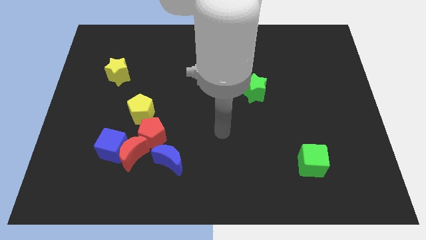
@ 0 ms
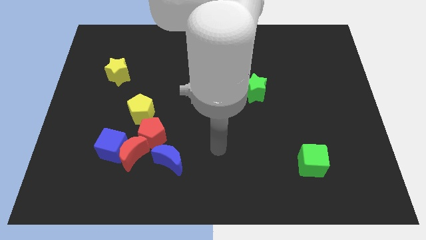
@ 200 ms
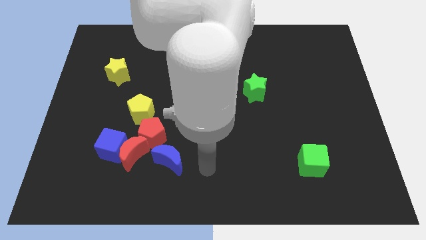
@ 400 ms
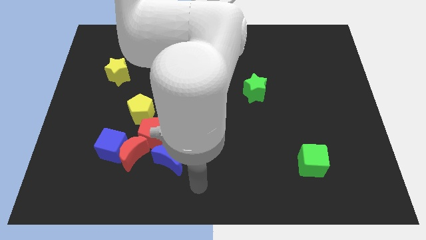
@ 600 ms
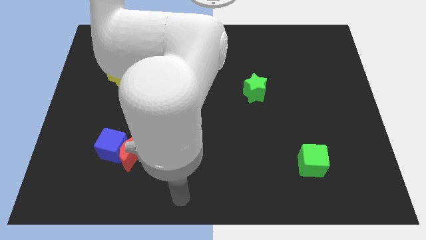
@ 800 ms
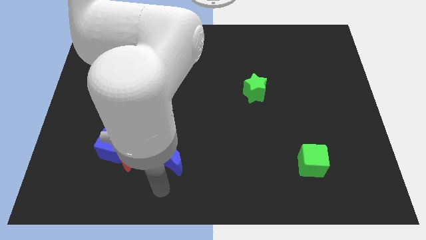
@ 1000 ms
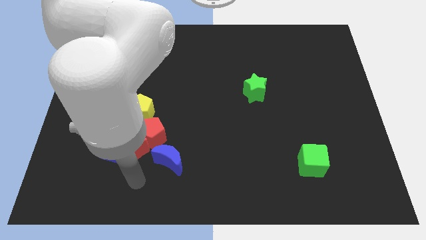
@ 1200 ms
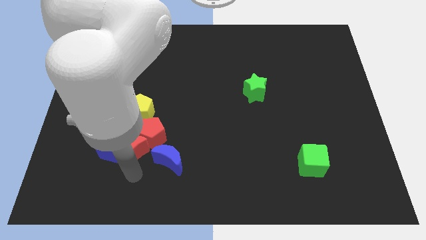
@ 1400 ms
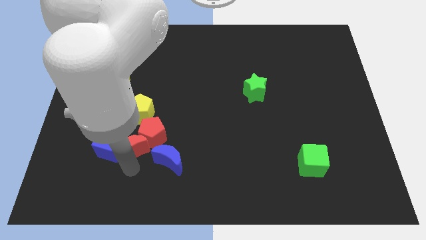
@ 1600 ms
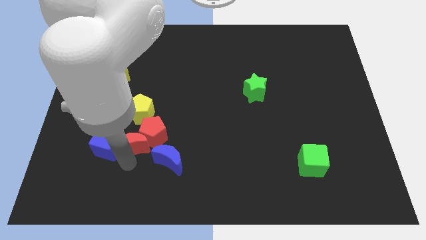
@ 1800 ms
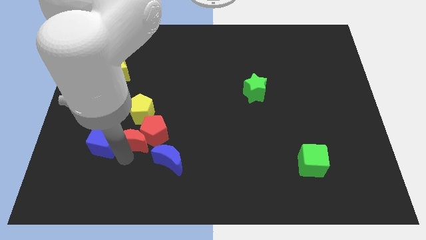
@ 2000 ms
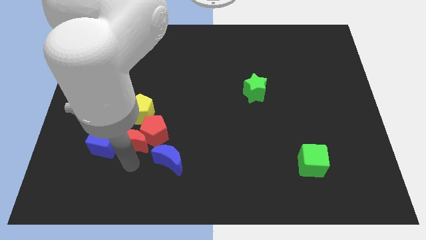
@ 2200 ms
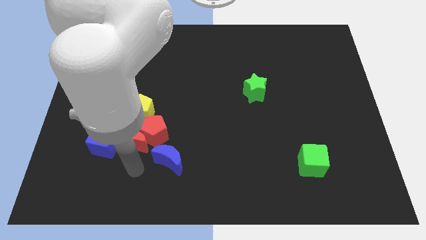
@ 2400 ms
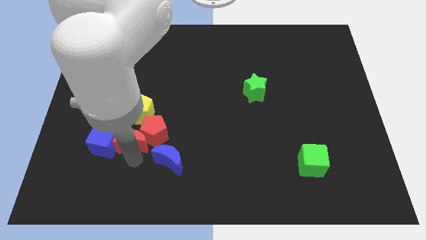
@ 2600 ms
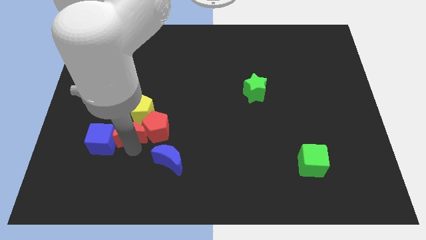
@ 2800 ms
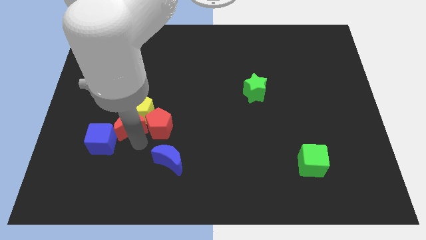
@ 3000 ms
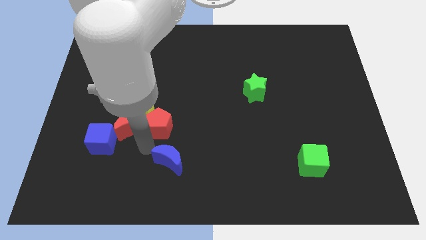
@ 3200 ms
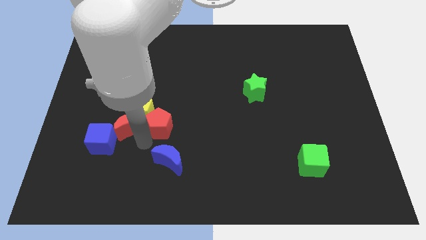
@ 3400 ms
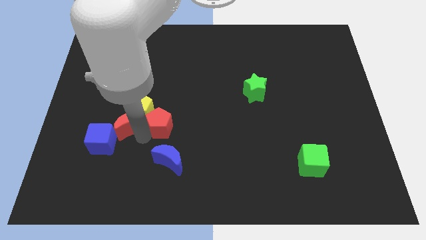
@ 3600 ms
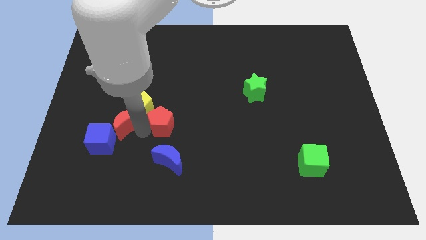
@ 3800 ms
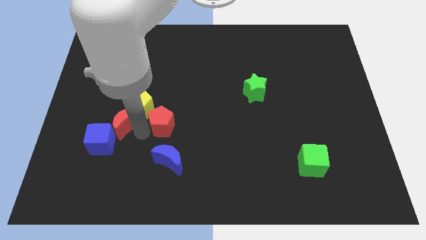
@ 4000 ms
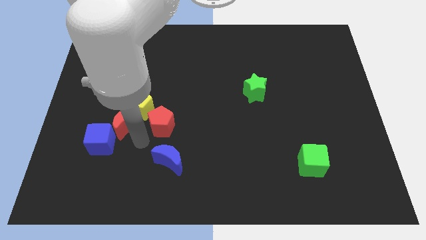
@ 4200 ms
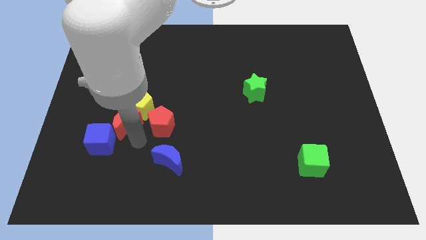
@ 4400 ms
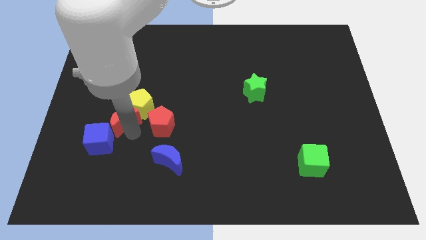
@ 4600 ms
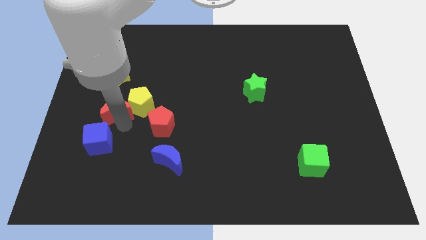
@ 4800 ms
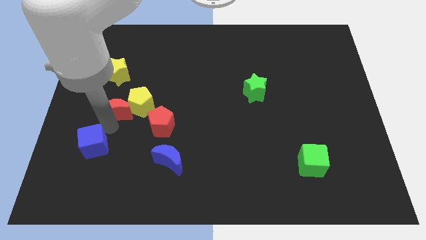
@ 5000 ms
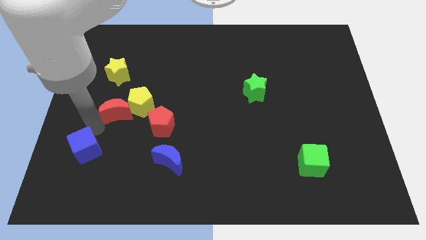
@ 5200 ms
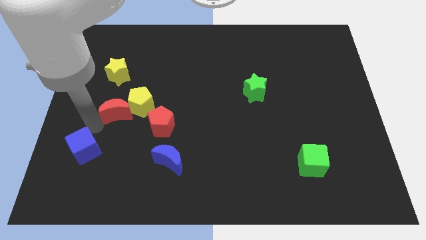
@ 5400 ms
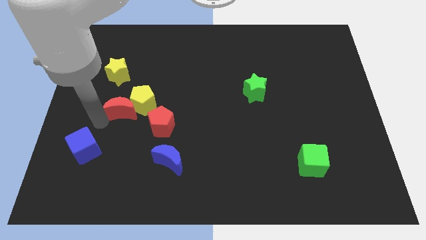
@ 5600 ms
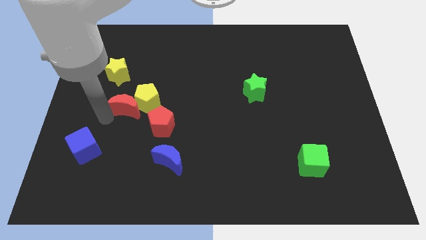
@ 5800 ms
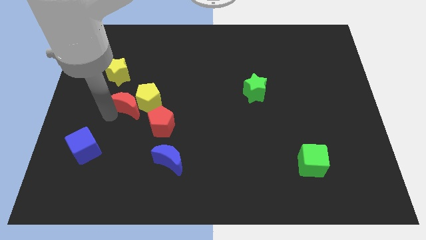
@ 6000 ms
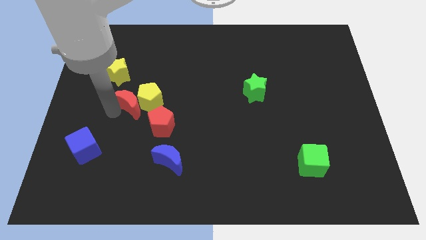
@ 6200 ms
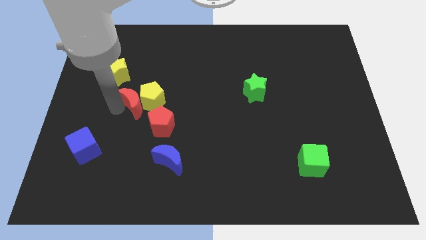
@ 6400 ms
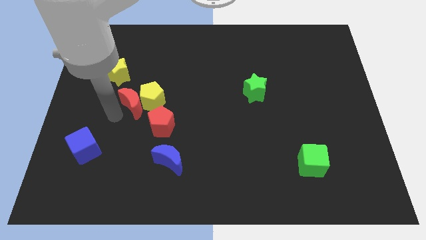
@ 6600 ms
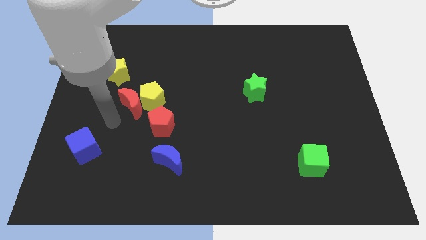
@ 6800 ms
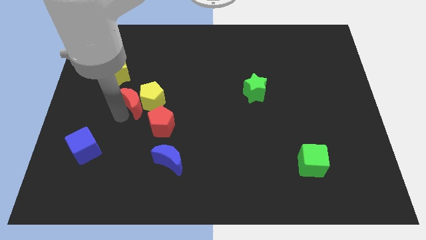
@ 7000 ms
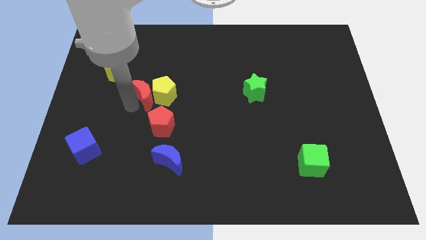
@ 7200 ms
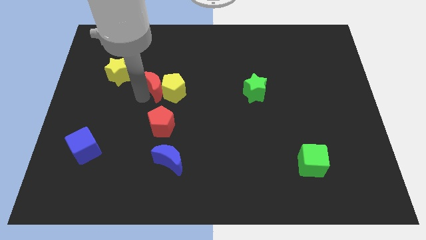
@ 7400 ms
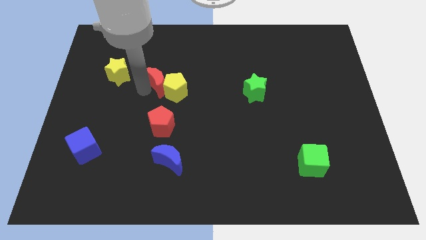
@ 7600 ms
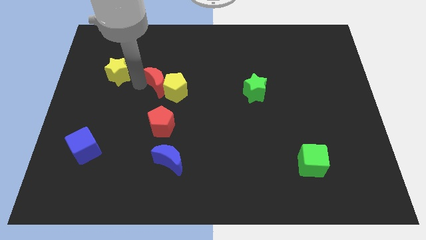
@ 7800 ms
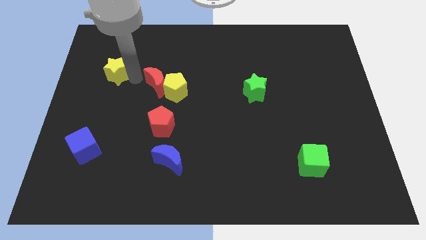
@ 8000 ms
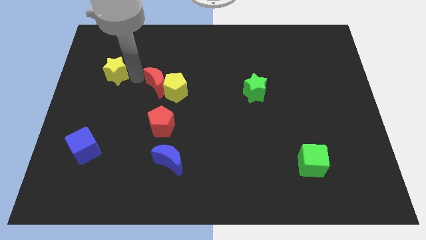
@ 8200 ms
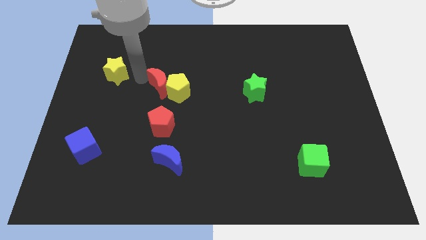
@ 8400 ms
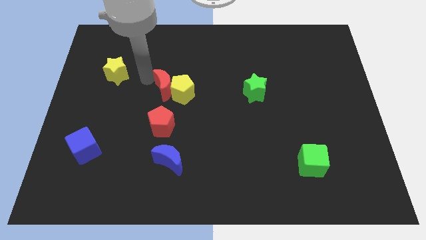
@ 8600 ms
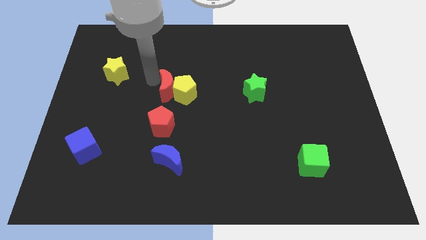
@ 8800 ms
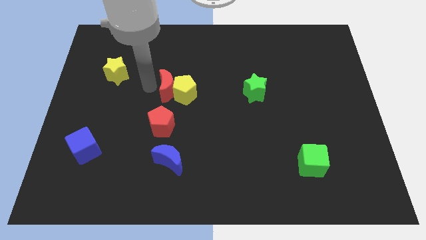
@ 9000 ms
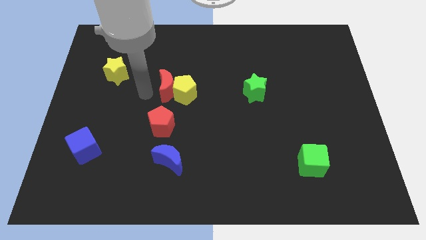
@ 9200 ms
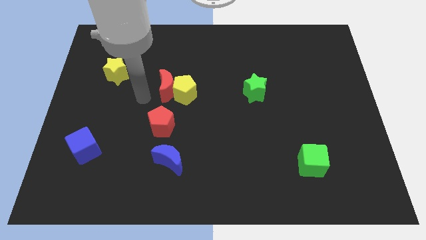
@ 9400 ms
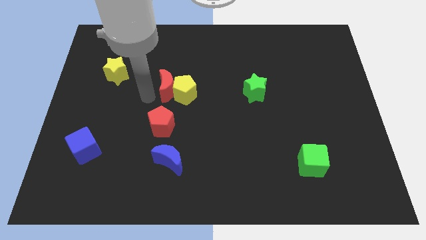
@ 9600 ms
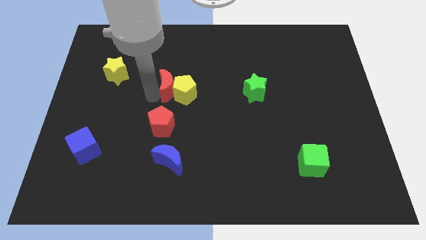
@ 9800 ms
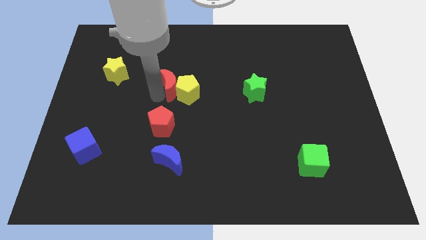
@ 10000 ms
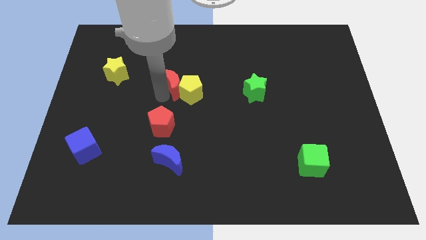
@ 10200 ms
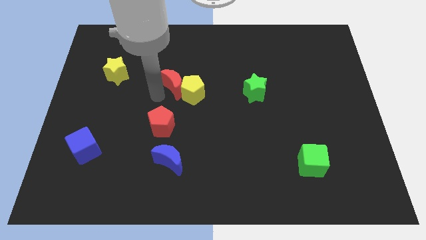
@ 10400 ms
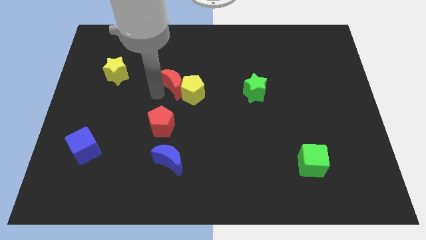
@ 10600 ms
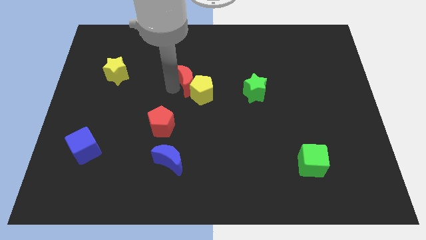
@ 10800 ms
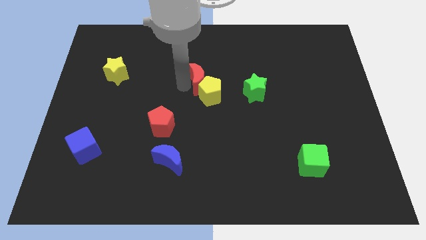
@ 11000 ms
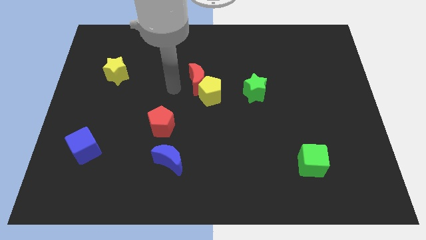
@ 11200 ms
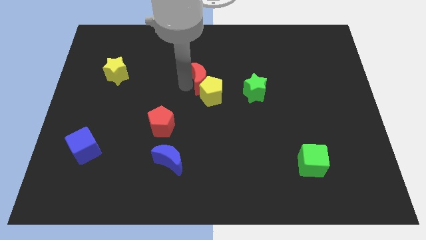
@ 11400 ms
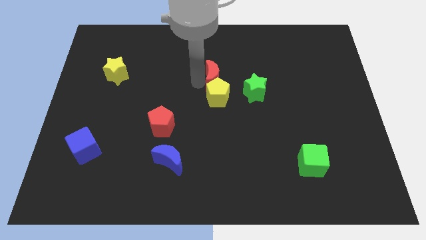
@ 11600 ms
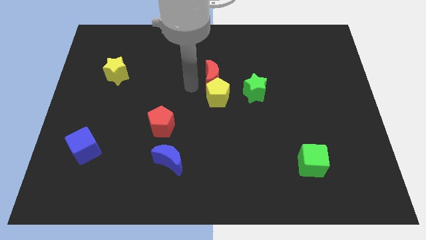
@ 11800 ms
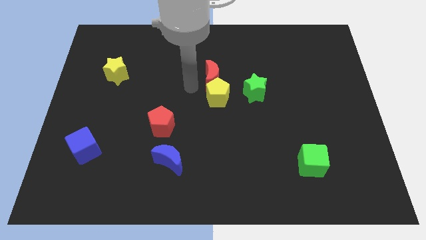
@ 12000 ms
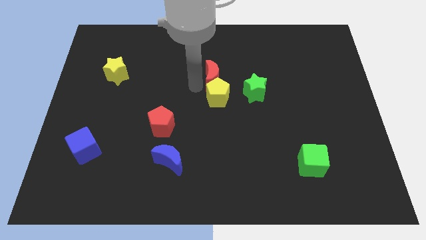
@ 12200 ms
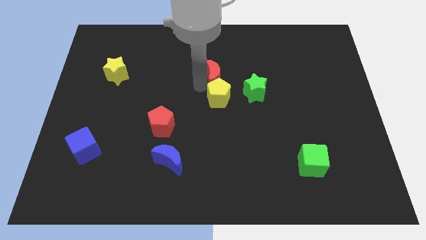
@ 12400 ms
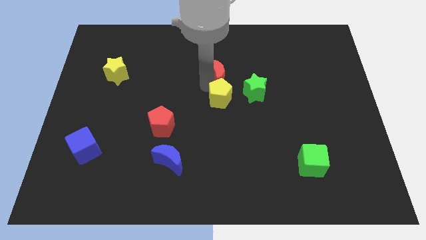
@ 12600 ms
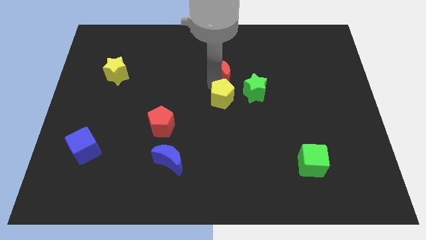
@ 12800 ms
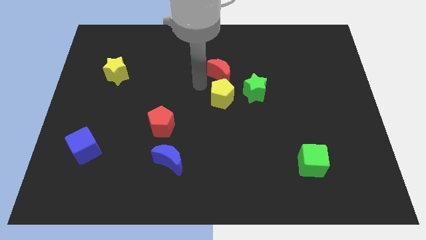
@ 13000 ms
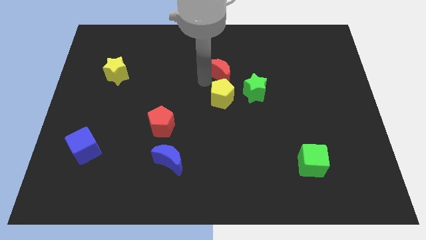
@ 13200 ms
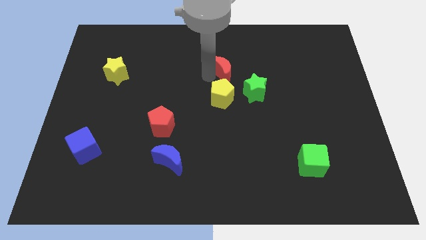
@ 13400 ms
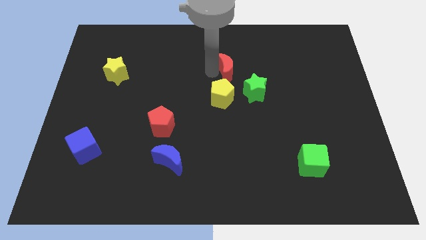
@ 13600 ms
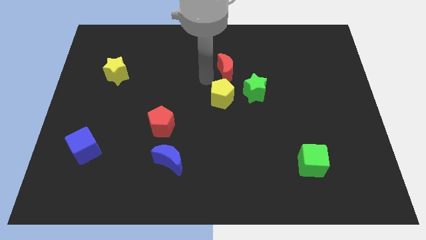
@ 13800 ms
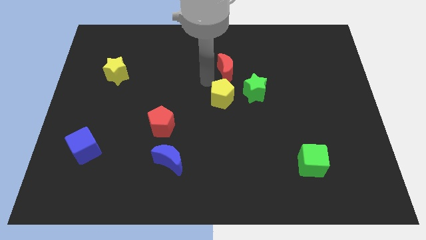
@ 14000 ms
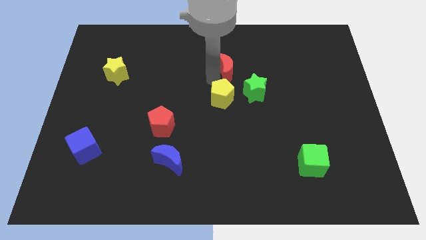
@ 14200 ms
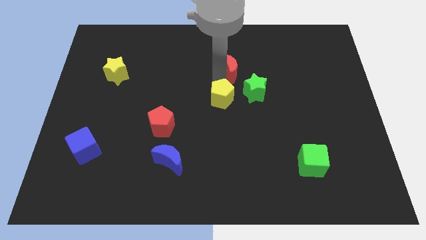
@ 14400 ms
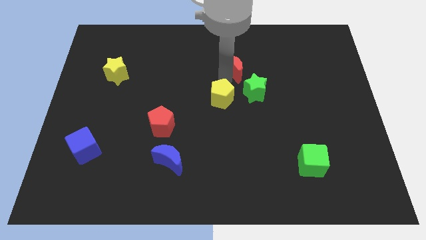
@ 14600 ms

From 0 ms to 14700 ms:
push the red moon above the green star

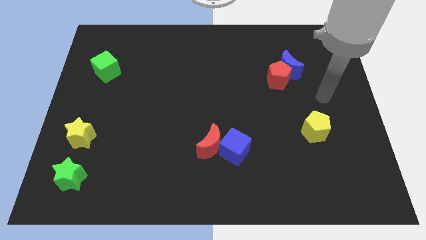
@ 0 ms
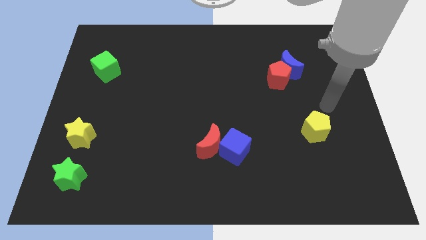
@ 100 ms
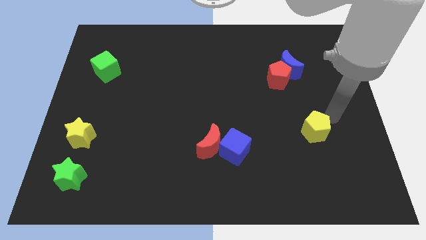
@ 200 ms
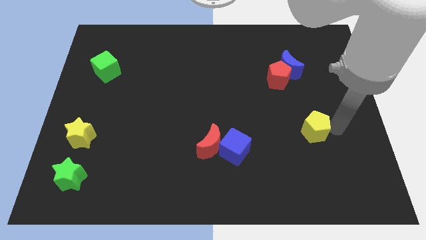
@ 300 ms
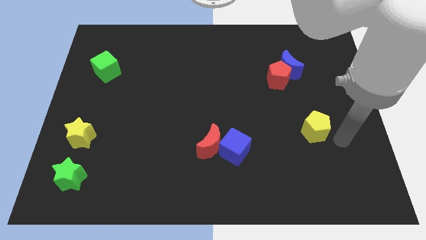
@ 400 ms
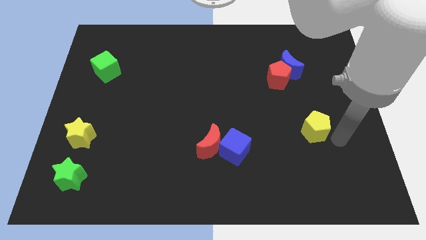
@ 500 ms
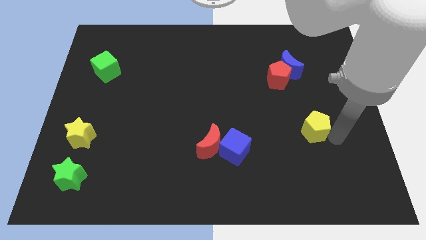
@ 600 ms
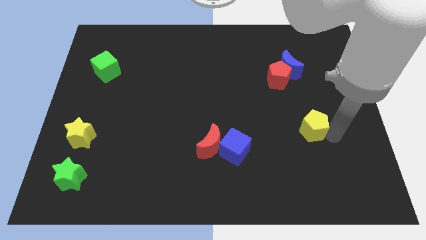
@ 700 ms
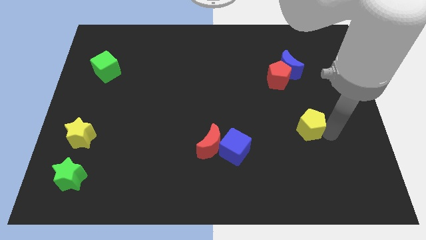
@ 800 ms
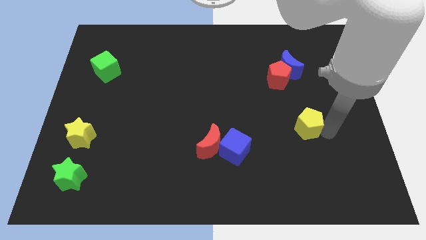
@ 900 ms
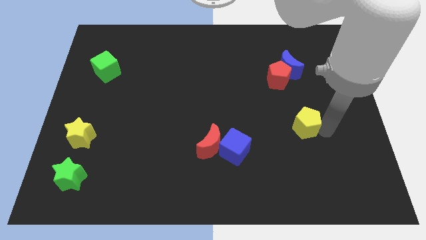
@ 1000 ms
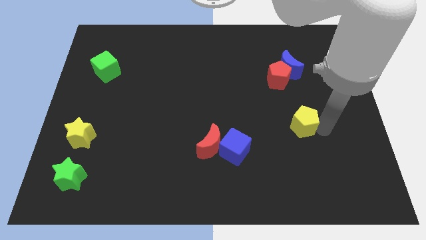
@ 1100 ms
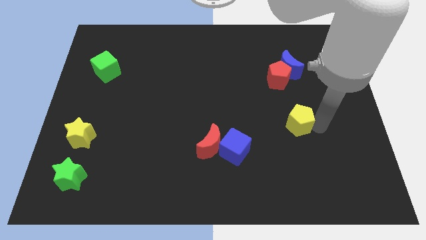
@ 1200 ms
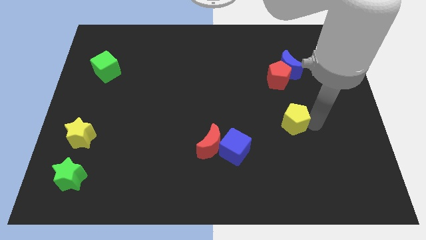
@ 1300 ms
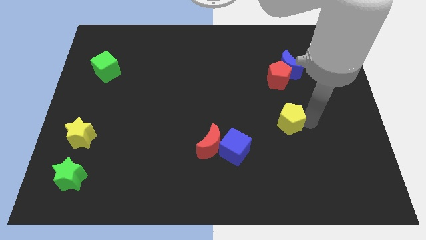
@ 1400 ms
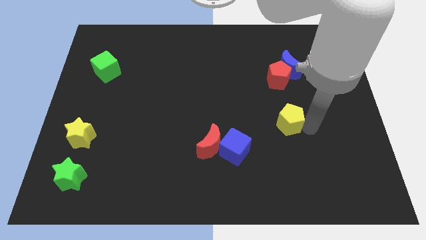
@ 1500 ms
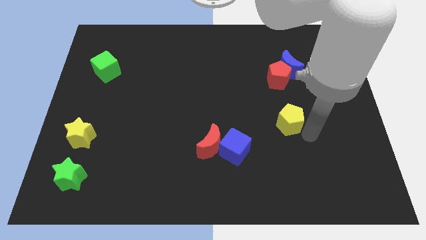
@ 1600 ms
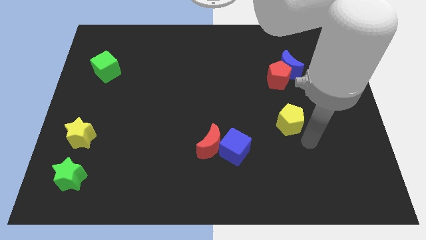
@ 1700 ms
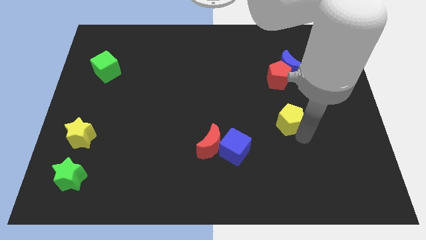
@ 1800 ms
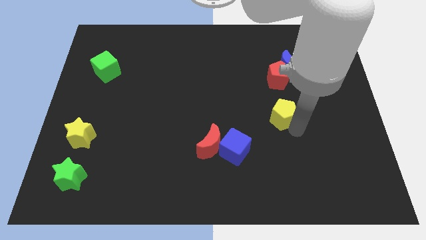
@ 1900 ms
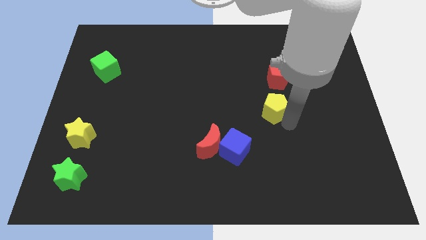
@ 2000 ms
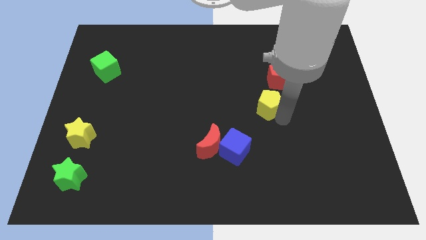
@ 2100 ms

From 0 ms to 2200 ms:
slide the yellow pentagon to the bottom left side of the red pentagon
